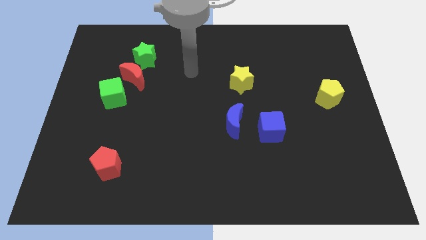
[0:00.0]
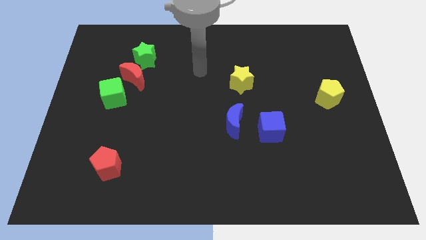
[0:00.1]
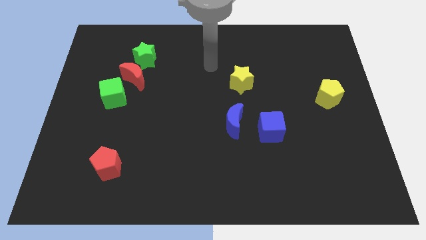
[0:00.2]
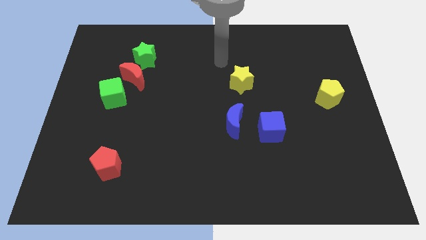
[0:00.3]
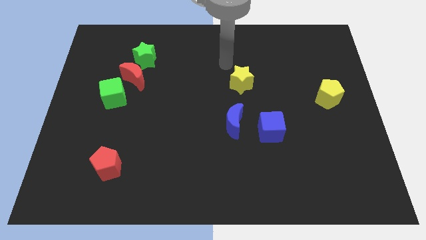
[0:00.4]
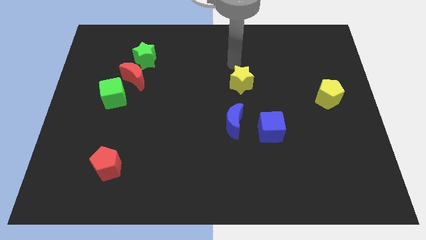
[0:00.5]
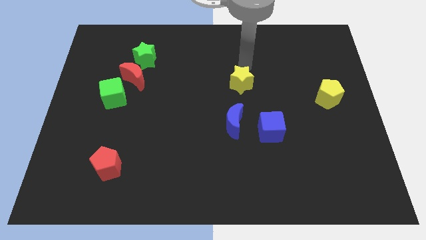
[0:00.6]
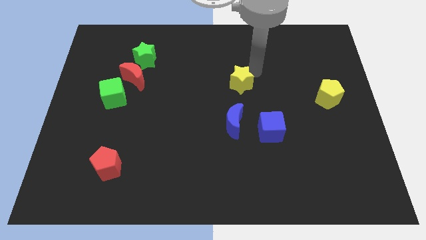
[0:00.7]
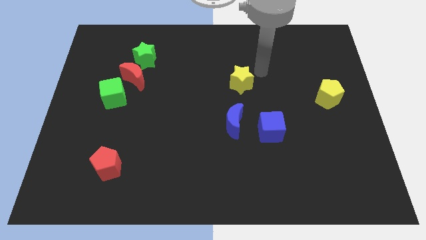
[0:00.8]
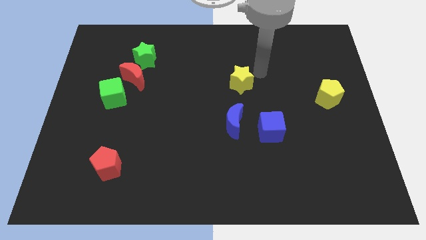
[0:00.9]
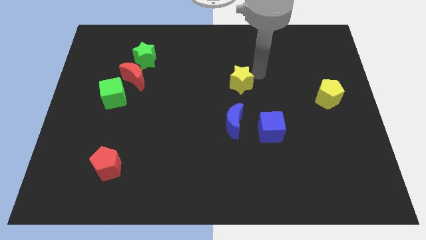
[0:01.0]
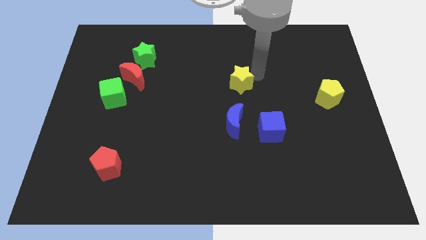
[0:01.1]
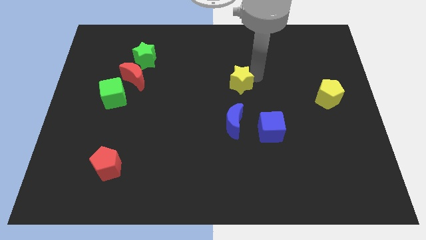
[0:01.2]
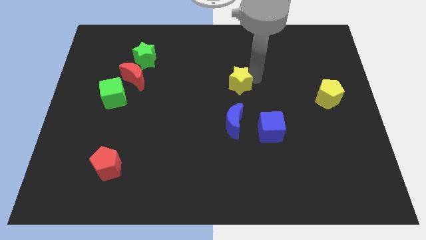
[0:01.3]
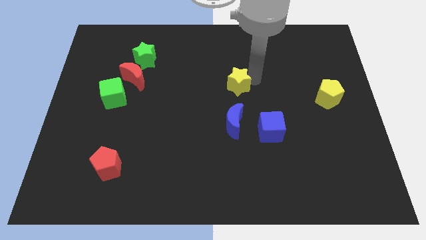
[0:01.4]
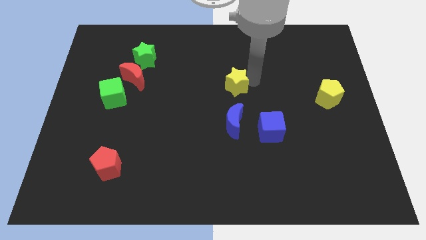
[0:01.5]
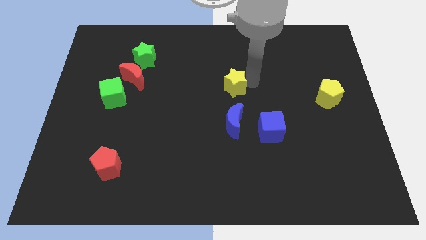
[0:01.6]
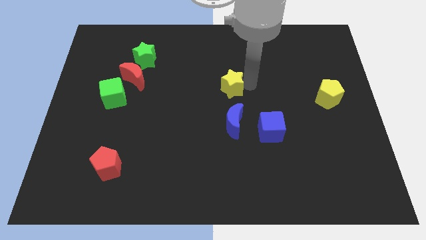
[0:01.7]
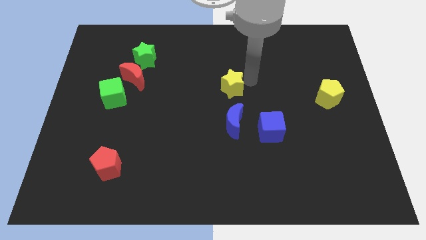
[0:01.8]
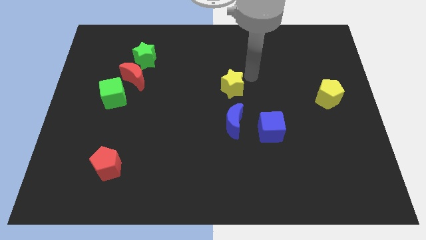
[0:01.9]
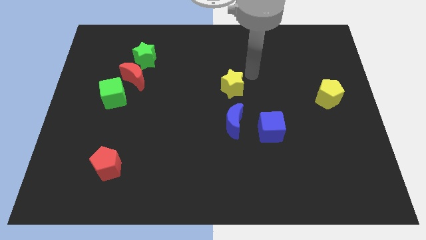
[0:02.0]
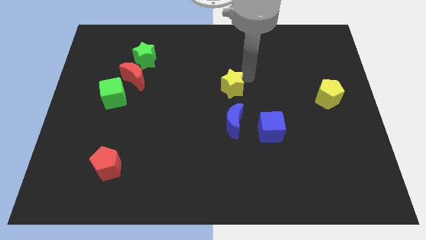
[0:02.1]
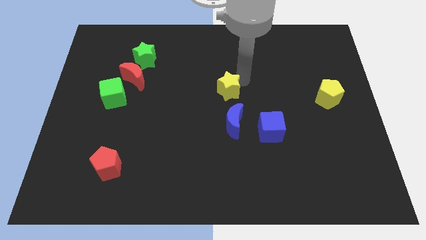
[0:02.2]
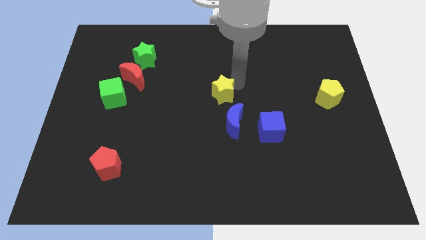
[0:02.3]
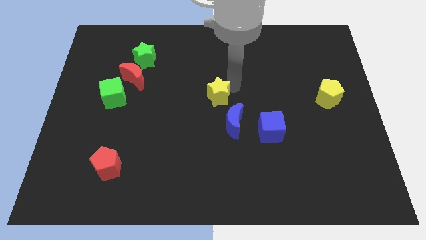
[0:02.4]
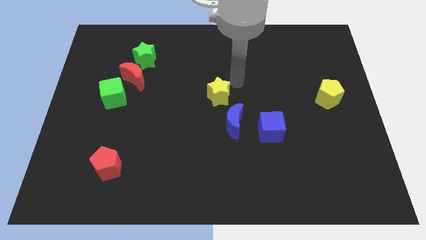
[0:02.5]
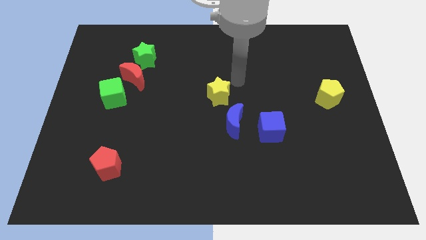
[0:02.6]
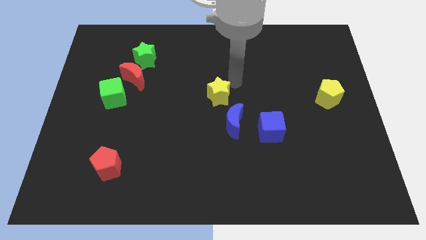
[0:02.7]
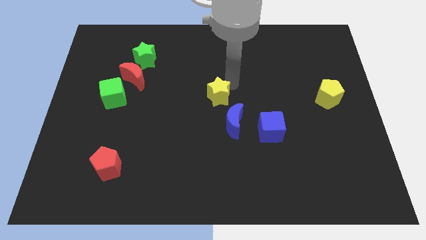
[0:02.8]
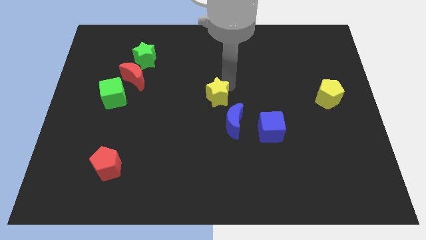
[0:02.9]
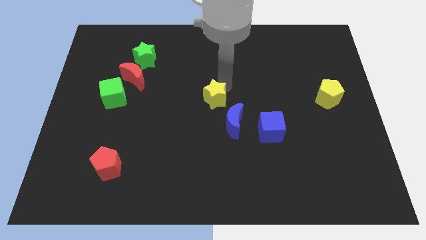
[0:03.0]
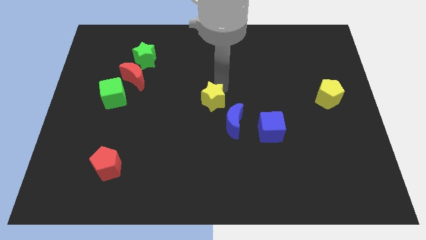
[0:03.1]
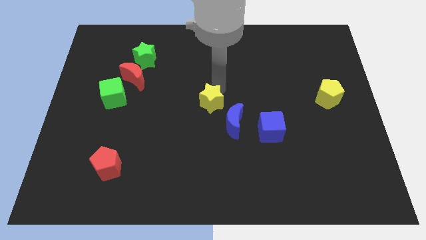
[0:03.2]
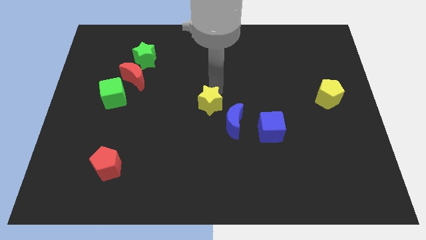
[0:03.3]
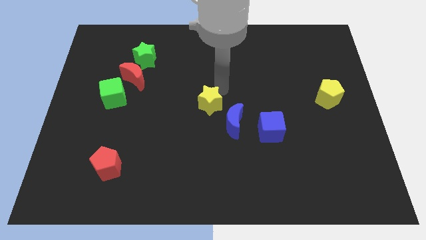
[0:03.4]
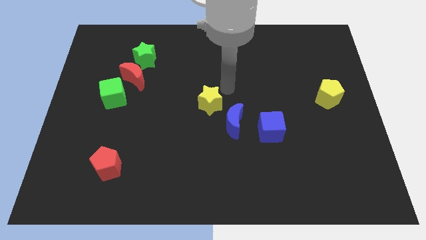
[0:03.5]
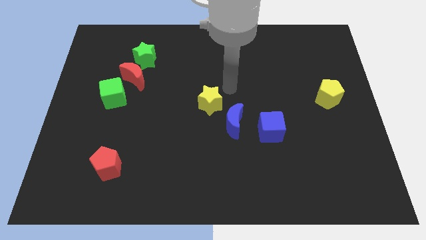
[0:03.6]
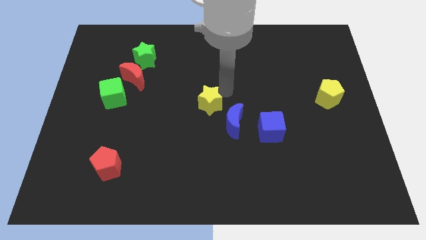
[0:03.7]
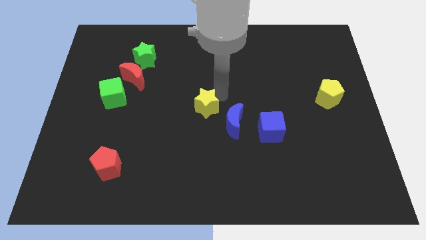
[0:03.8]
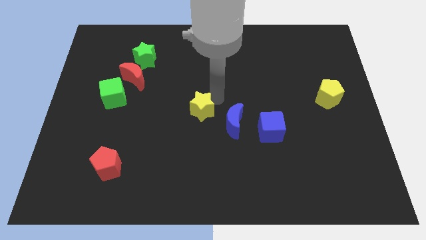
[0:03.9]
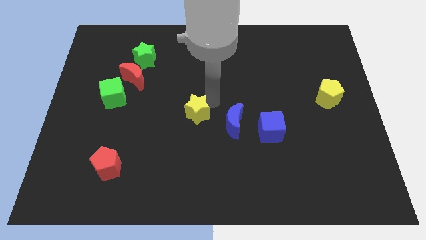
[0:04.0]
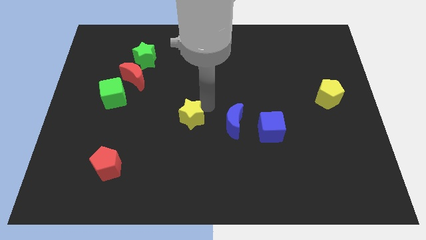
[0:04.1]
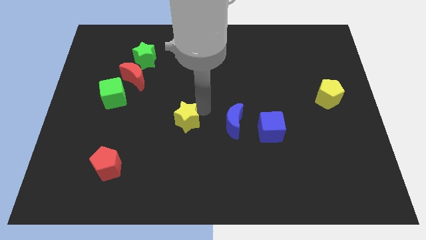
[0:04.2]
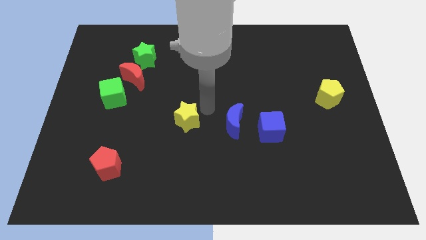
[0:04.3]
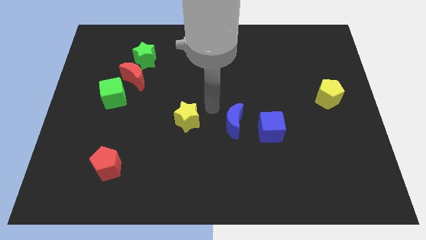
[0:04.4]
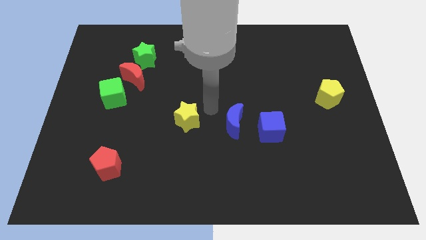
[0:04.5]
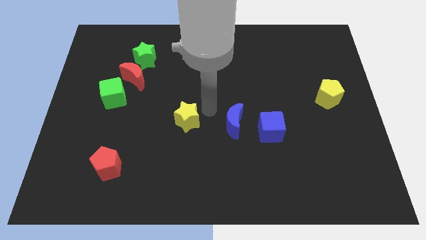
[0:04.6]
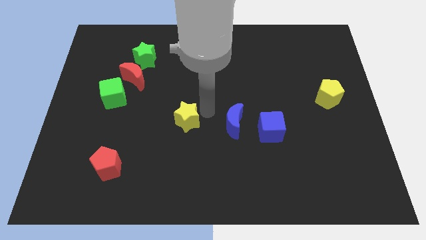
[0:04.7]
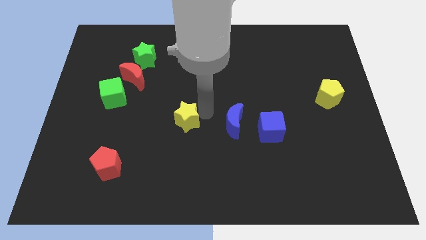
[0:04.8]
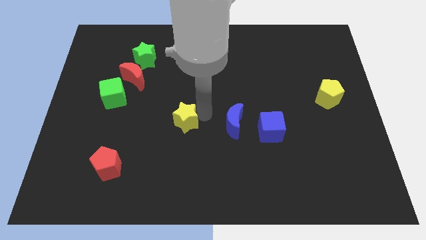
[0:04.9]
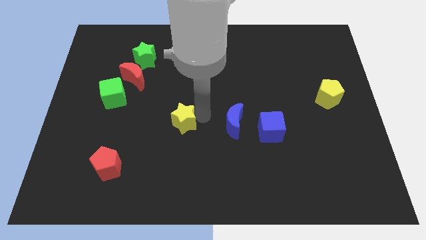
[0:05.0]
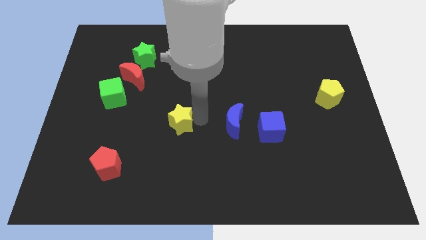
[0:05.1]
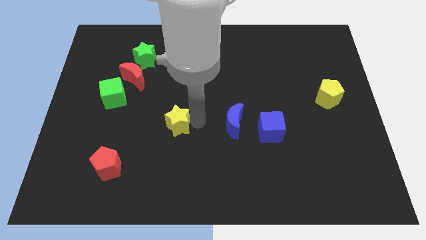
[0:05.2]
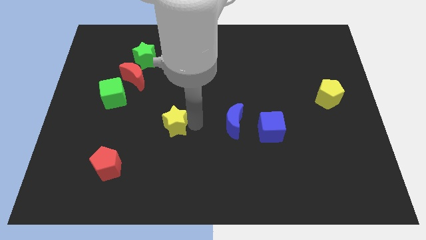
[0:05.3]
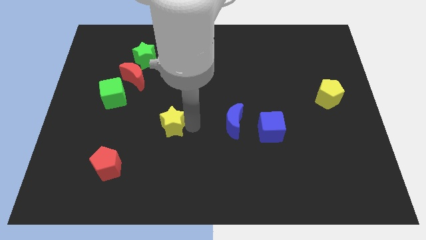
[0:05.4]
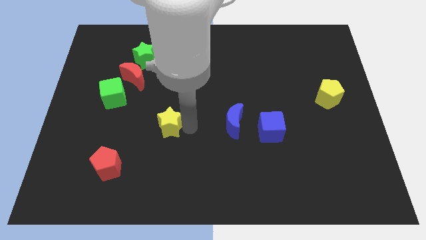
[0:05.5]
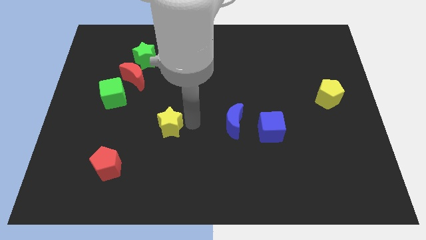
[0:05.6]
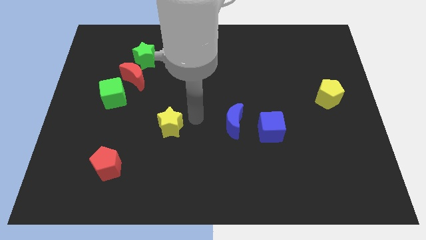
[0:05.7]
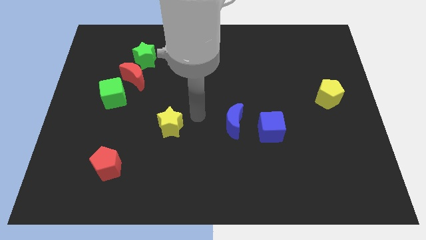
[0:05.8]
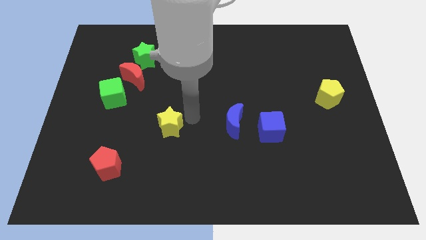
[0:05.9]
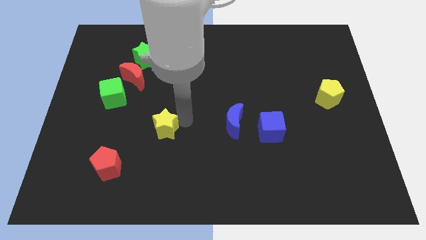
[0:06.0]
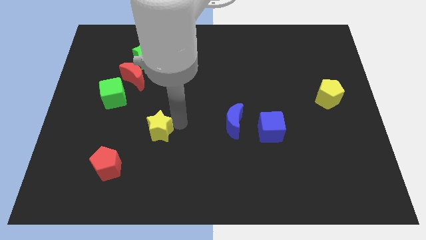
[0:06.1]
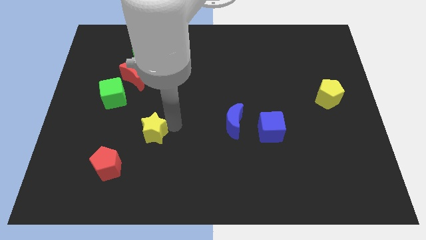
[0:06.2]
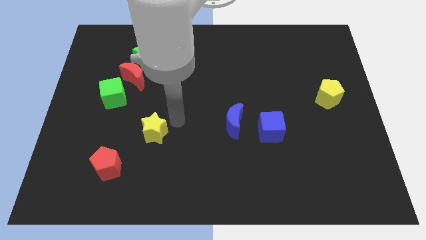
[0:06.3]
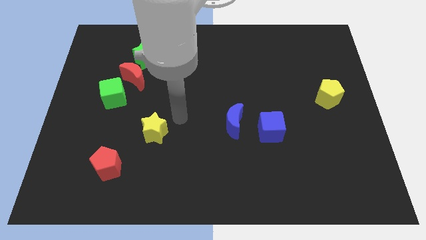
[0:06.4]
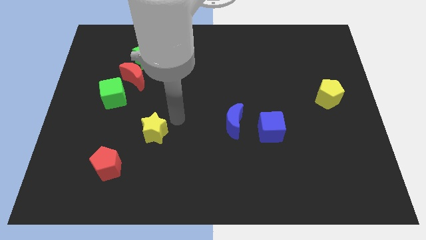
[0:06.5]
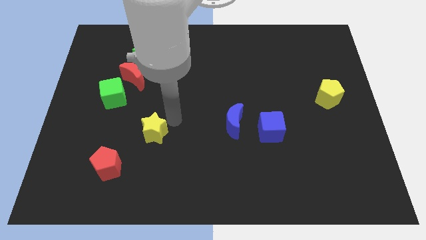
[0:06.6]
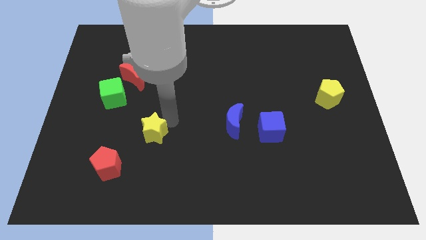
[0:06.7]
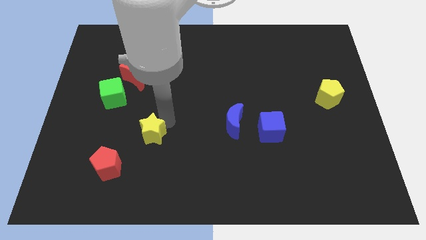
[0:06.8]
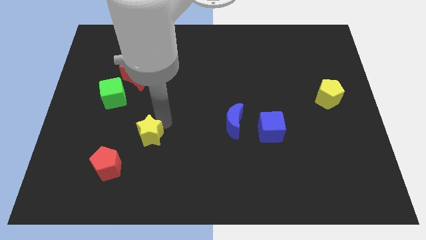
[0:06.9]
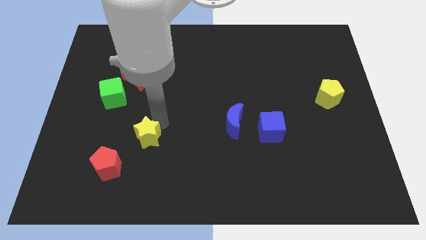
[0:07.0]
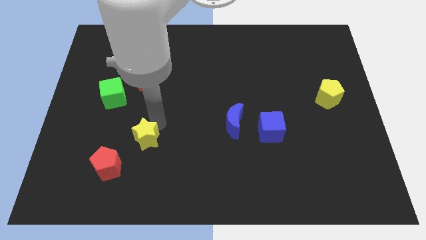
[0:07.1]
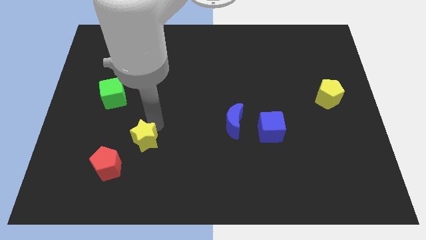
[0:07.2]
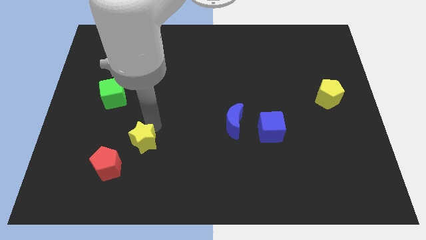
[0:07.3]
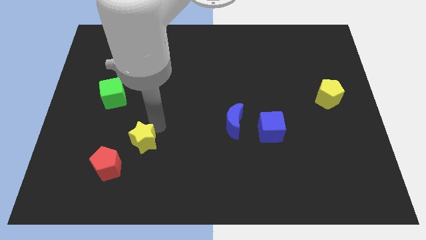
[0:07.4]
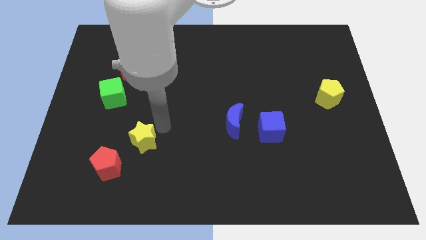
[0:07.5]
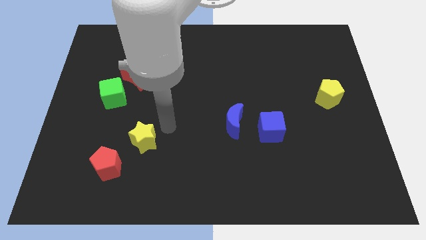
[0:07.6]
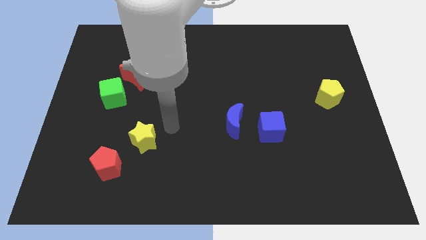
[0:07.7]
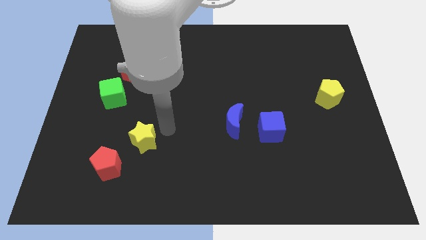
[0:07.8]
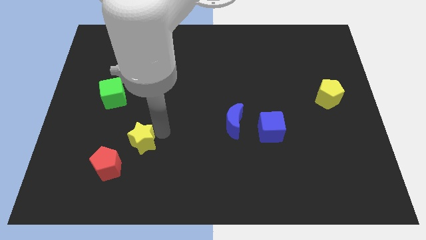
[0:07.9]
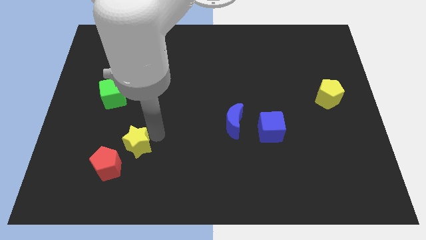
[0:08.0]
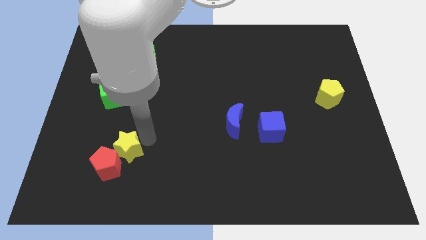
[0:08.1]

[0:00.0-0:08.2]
push the yellow star next to the red pentagon
